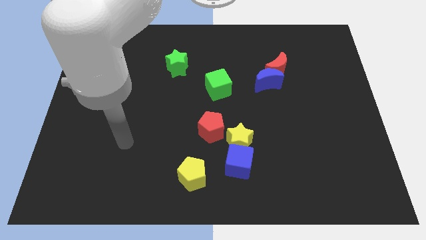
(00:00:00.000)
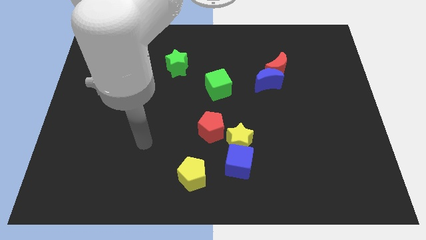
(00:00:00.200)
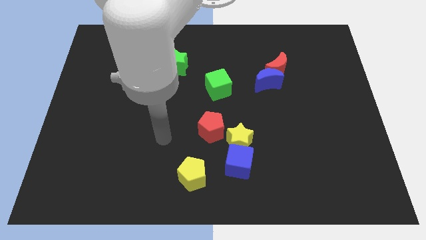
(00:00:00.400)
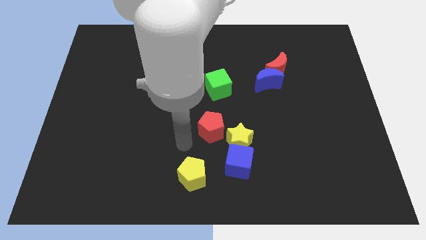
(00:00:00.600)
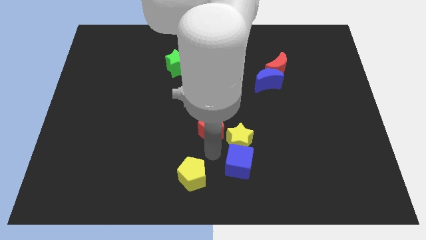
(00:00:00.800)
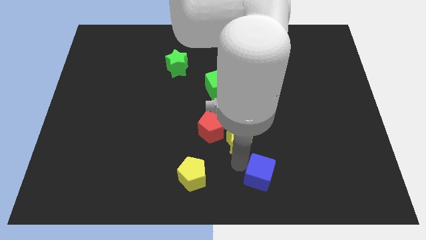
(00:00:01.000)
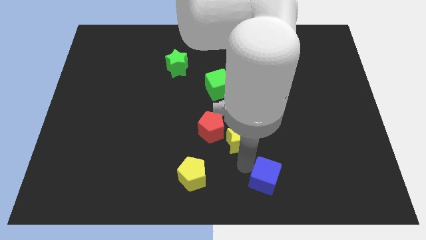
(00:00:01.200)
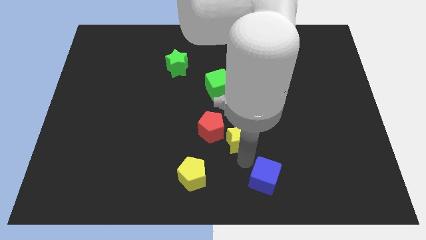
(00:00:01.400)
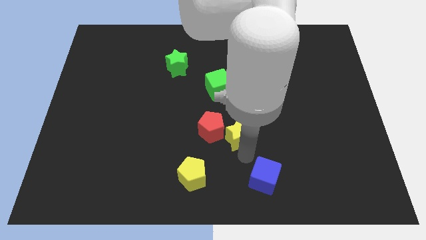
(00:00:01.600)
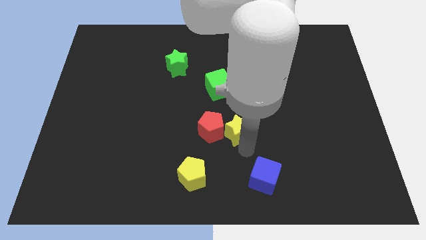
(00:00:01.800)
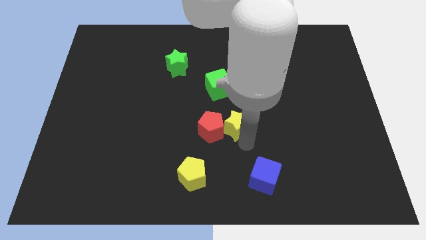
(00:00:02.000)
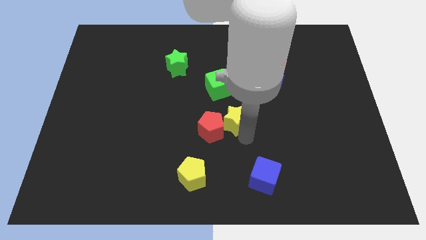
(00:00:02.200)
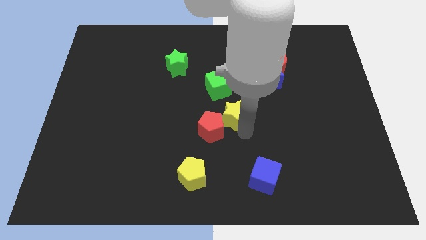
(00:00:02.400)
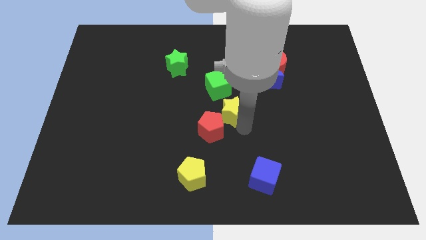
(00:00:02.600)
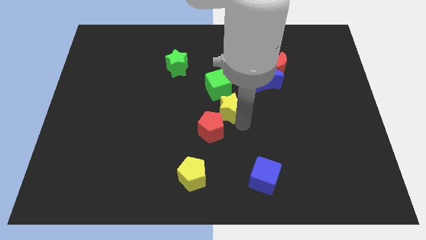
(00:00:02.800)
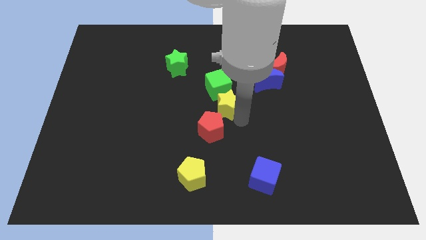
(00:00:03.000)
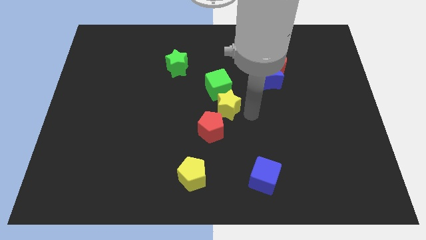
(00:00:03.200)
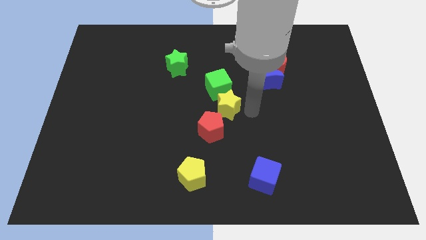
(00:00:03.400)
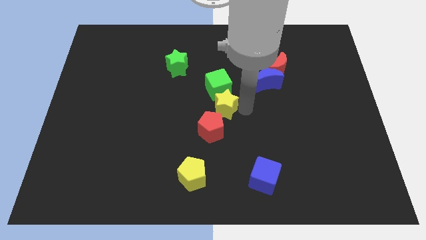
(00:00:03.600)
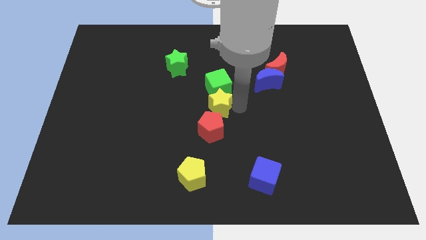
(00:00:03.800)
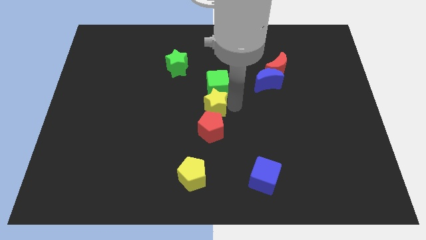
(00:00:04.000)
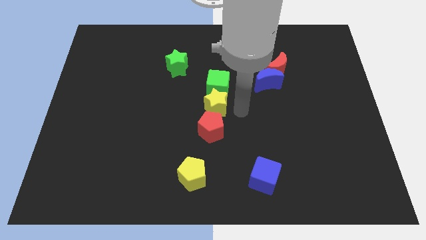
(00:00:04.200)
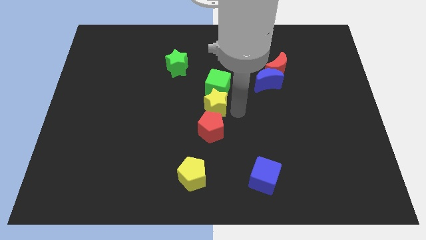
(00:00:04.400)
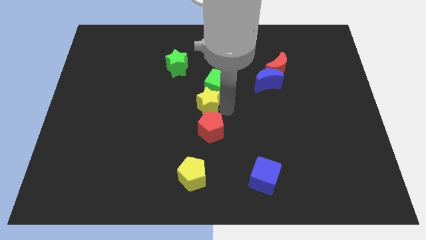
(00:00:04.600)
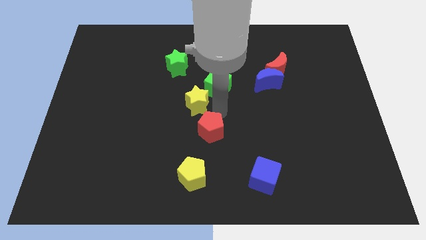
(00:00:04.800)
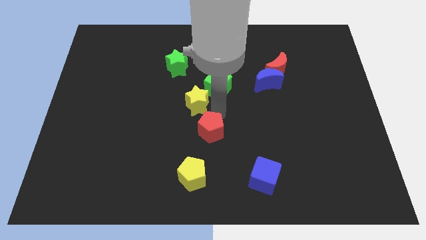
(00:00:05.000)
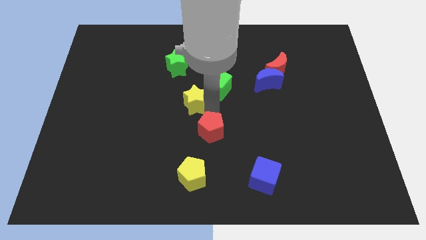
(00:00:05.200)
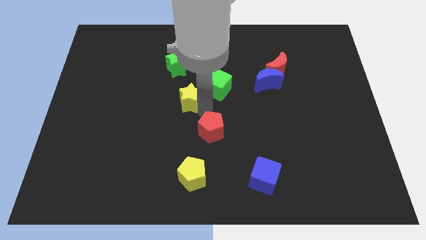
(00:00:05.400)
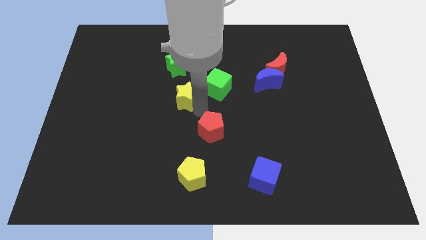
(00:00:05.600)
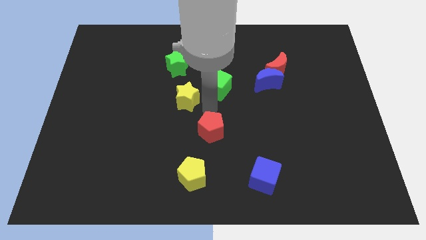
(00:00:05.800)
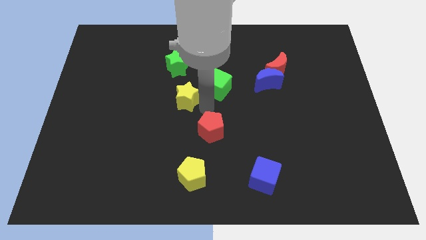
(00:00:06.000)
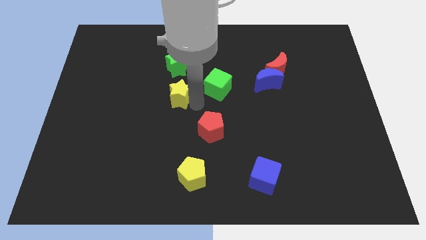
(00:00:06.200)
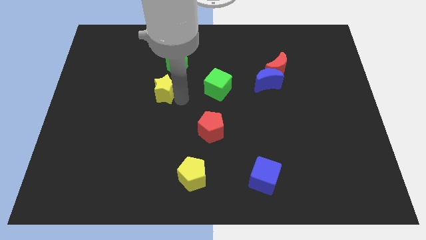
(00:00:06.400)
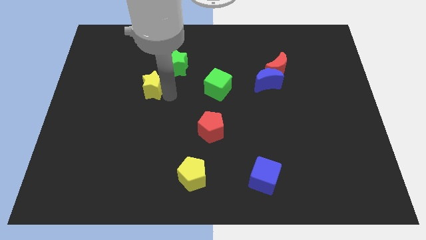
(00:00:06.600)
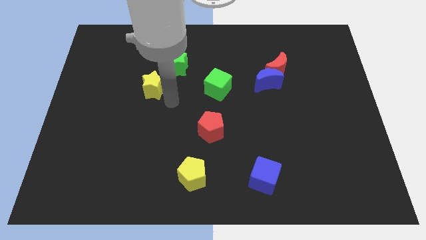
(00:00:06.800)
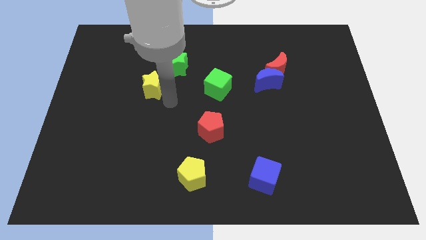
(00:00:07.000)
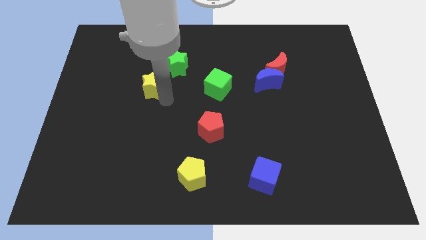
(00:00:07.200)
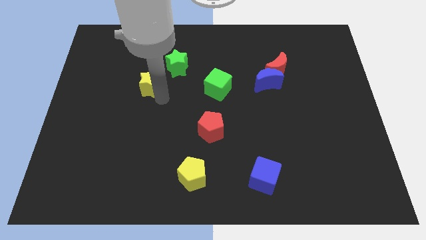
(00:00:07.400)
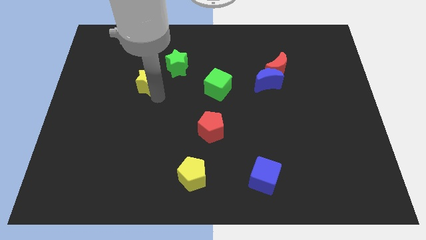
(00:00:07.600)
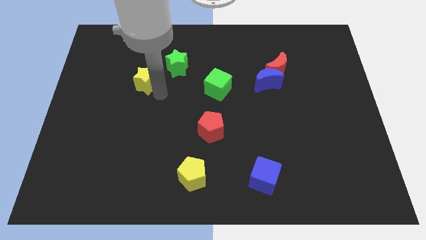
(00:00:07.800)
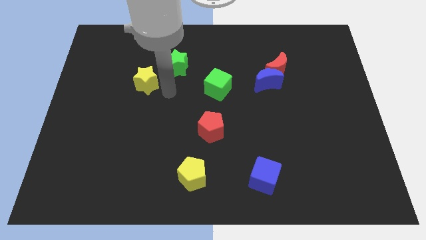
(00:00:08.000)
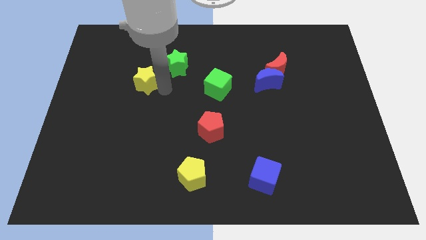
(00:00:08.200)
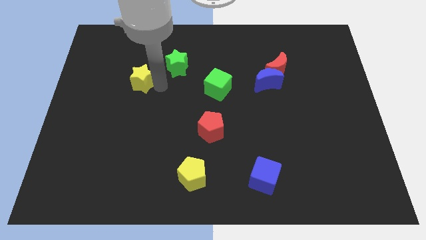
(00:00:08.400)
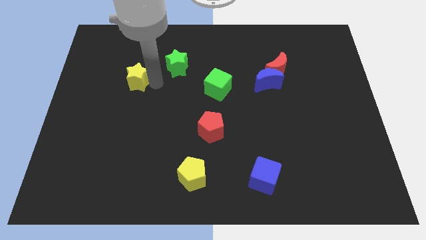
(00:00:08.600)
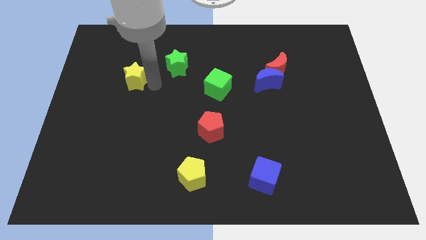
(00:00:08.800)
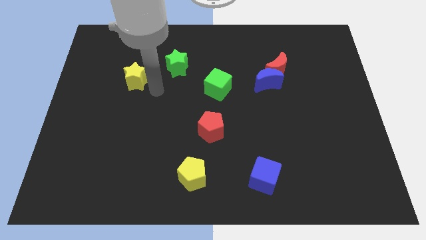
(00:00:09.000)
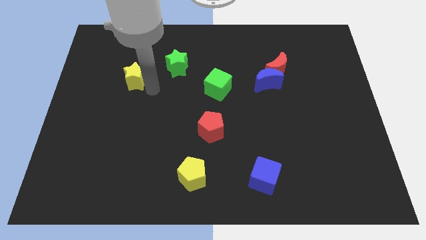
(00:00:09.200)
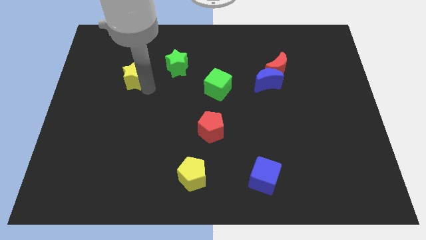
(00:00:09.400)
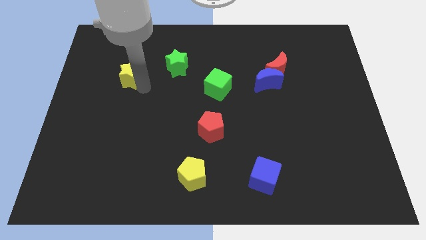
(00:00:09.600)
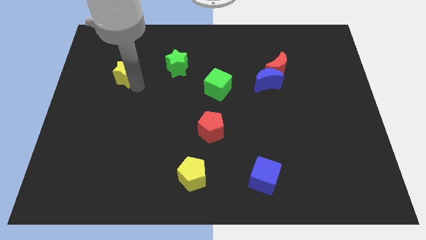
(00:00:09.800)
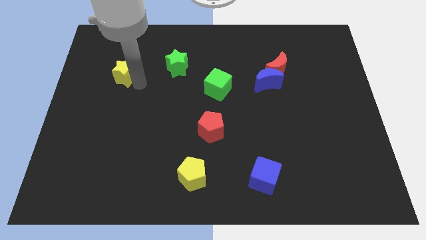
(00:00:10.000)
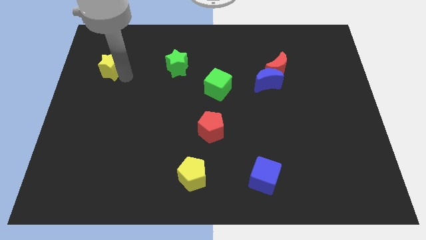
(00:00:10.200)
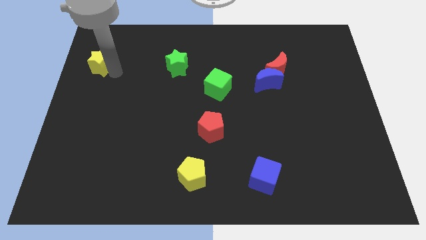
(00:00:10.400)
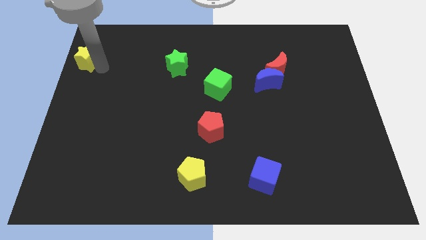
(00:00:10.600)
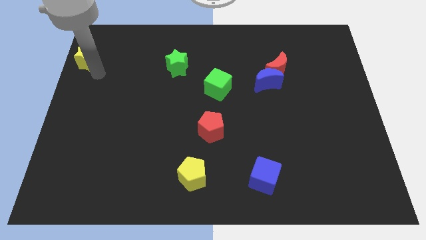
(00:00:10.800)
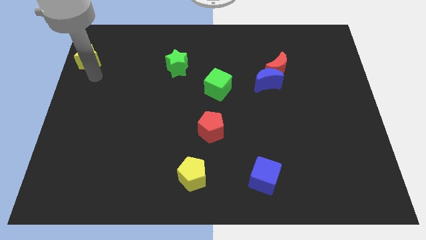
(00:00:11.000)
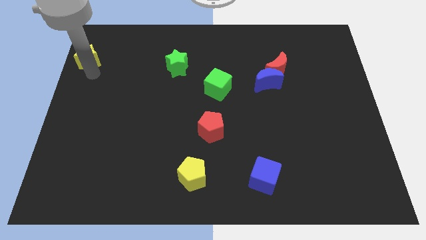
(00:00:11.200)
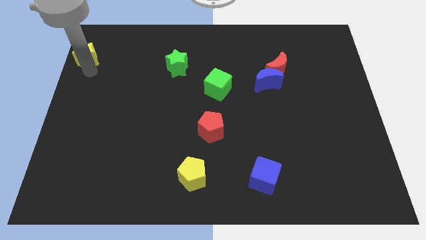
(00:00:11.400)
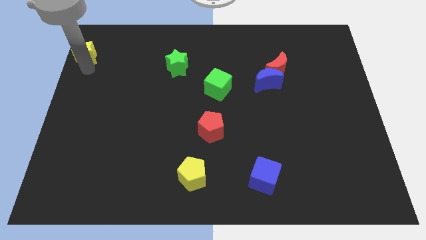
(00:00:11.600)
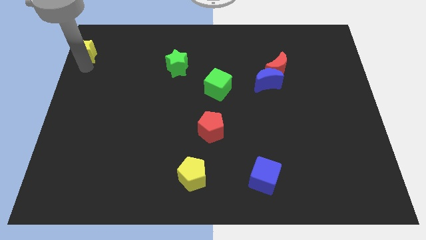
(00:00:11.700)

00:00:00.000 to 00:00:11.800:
push the yellow star to the upper left corner

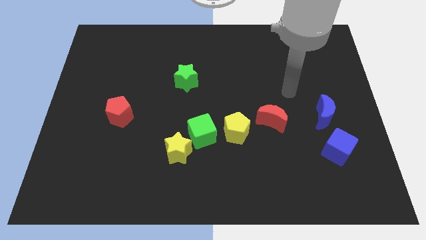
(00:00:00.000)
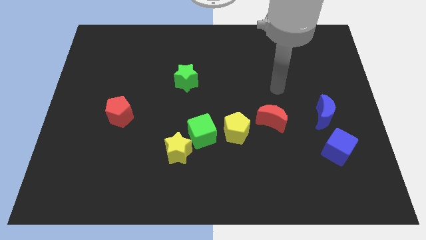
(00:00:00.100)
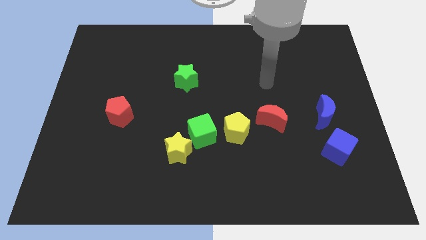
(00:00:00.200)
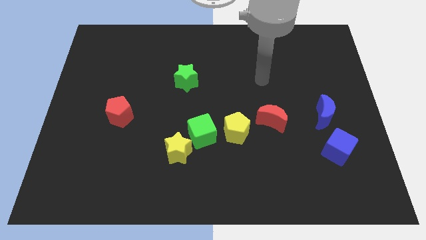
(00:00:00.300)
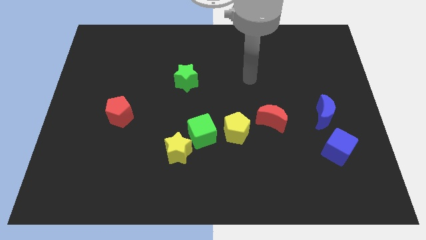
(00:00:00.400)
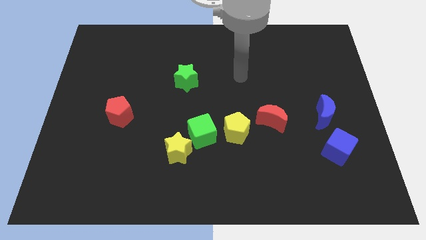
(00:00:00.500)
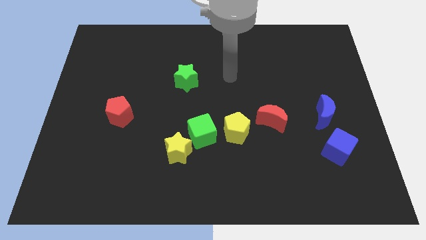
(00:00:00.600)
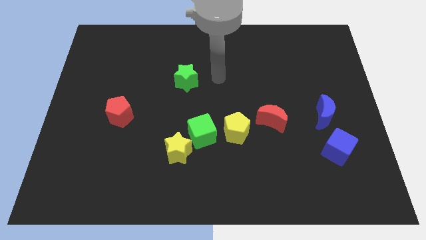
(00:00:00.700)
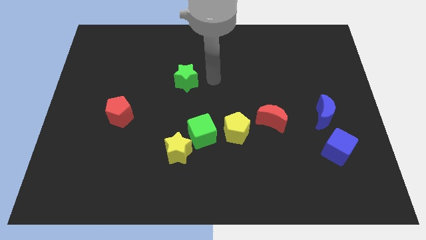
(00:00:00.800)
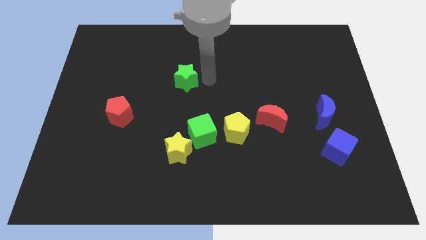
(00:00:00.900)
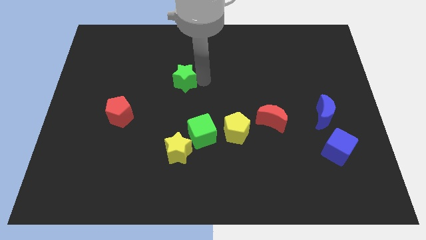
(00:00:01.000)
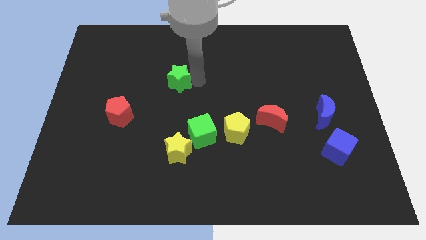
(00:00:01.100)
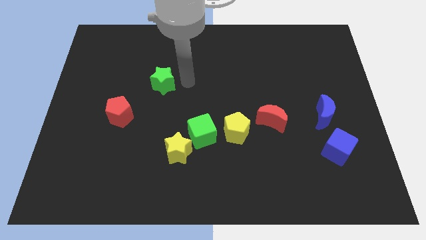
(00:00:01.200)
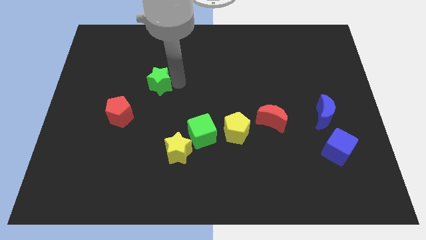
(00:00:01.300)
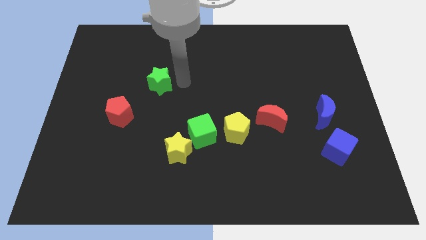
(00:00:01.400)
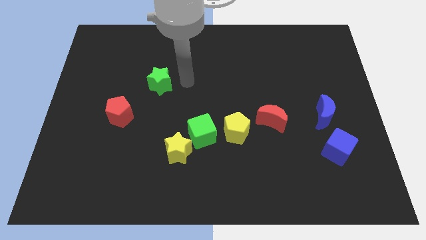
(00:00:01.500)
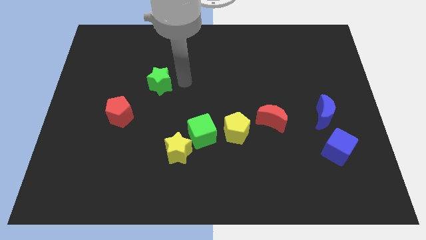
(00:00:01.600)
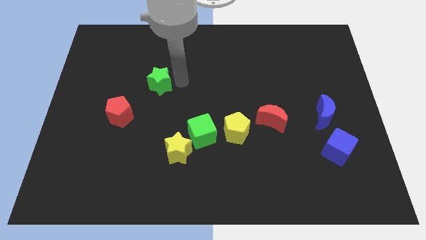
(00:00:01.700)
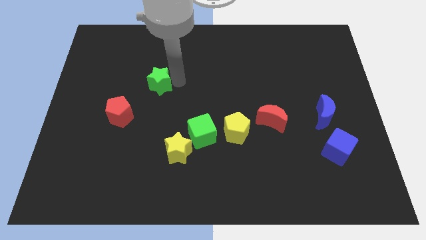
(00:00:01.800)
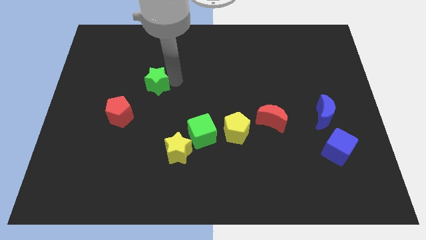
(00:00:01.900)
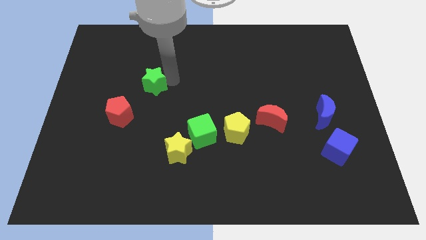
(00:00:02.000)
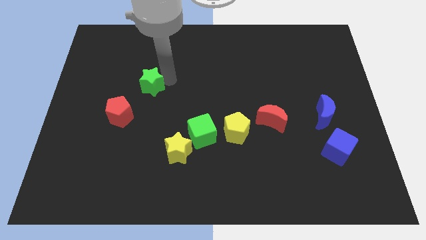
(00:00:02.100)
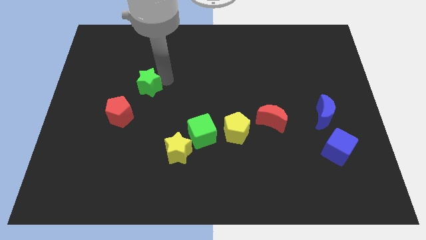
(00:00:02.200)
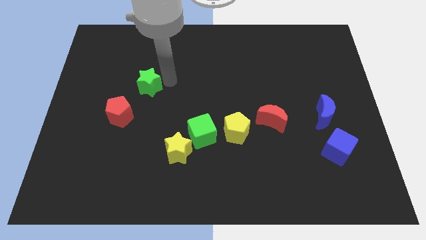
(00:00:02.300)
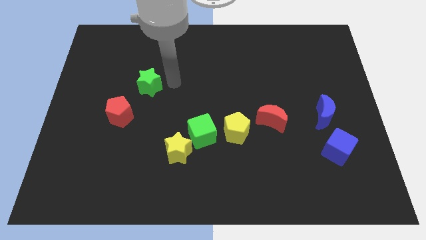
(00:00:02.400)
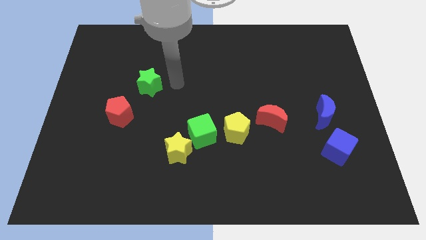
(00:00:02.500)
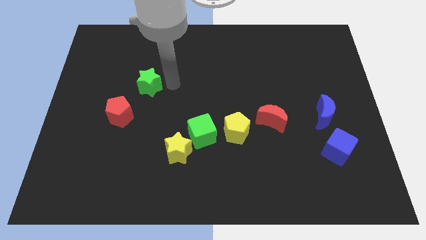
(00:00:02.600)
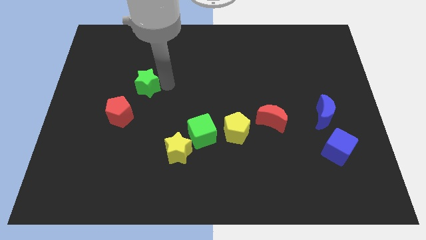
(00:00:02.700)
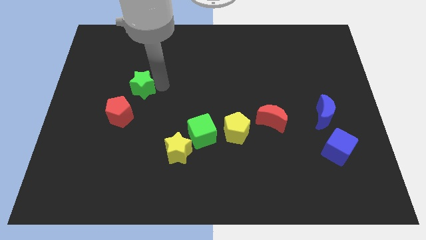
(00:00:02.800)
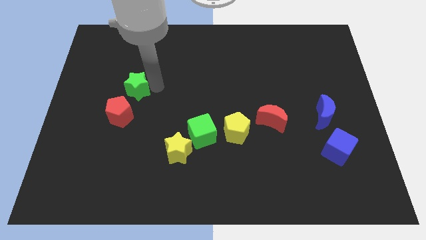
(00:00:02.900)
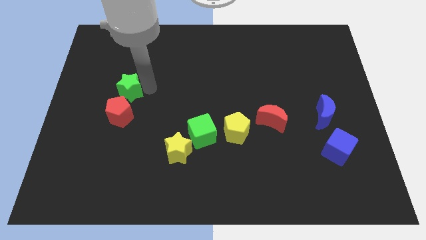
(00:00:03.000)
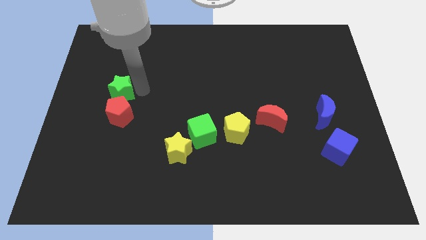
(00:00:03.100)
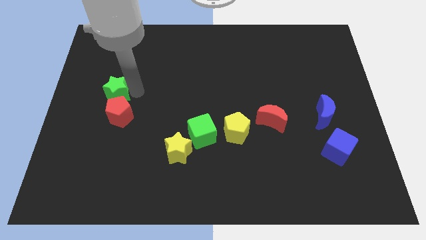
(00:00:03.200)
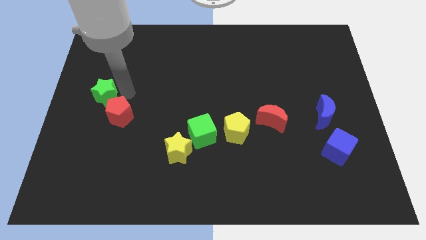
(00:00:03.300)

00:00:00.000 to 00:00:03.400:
slide the green star to the left side of the board
